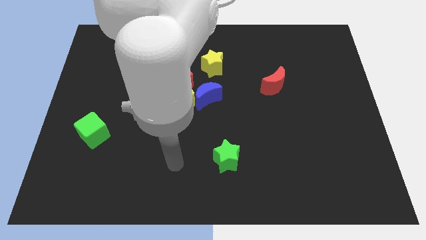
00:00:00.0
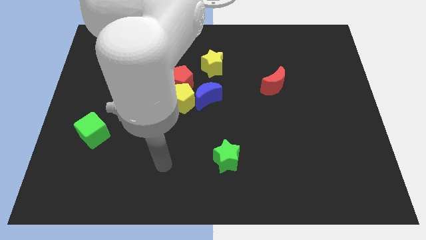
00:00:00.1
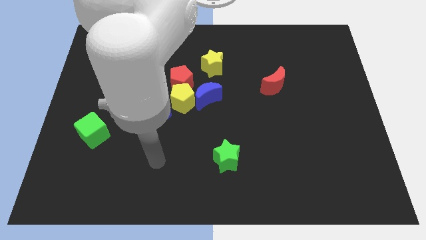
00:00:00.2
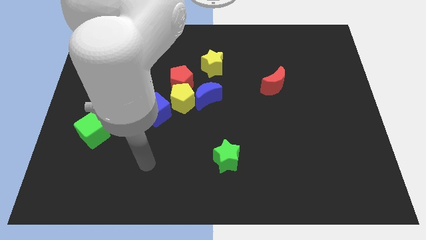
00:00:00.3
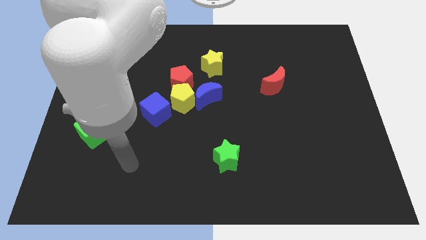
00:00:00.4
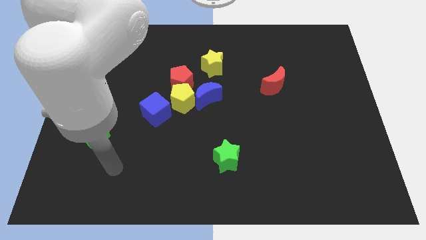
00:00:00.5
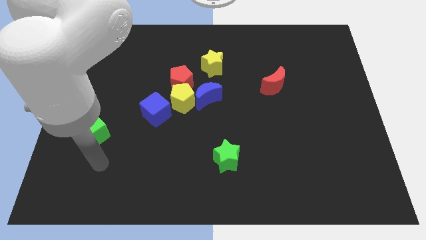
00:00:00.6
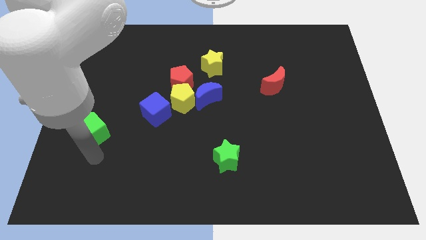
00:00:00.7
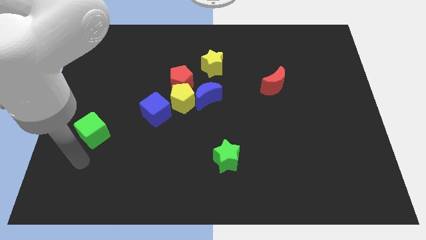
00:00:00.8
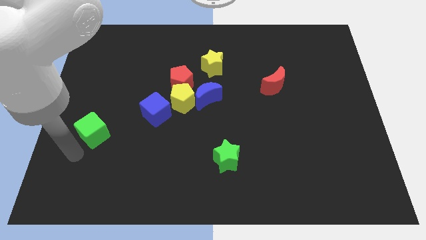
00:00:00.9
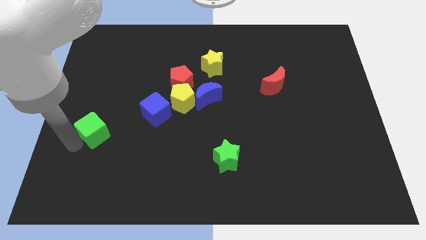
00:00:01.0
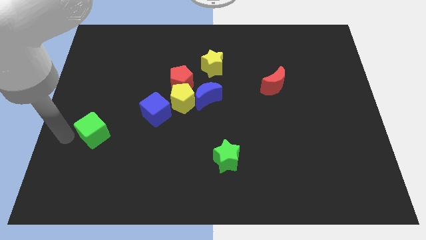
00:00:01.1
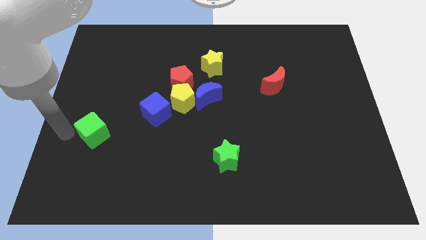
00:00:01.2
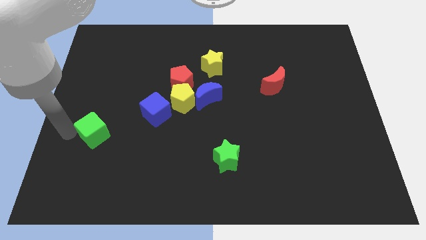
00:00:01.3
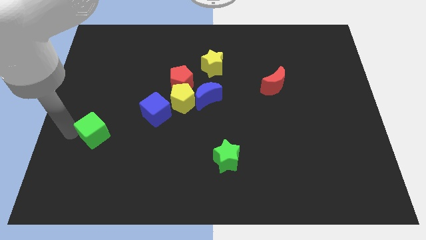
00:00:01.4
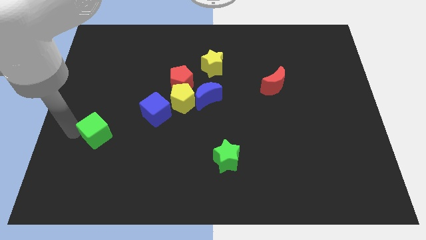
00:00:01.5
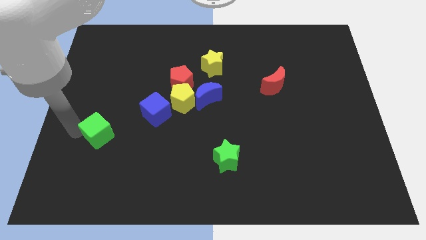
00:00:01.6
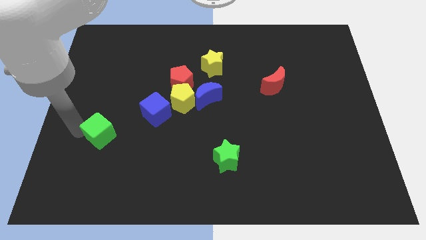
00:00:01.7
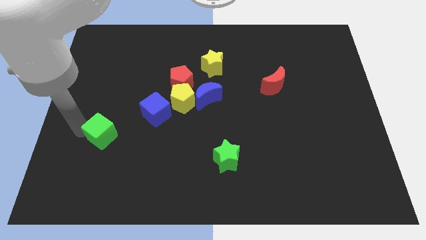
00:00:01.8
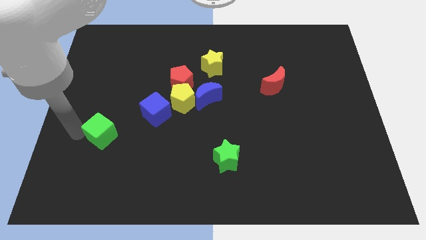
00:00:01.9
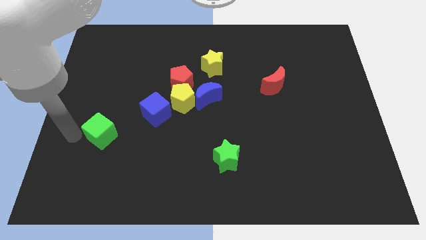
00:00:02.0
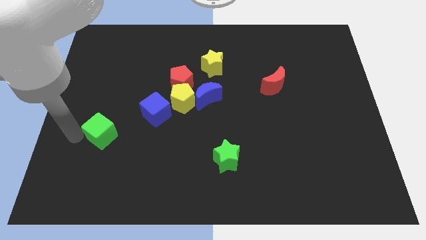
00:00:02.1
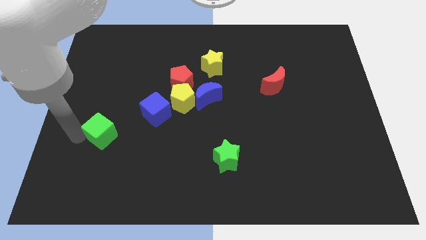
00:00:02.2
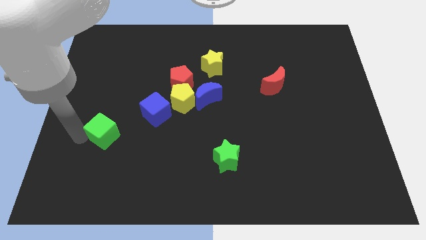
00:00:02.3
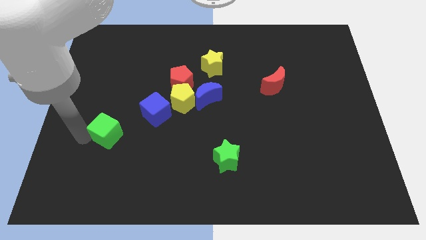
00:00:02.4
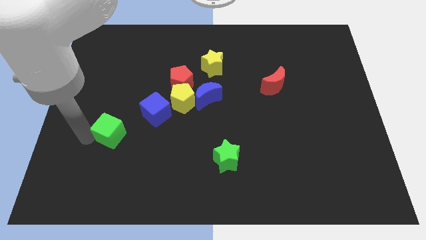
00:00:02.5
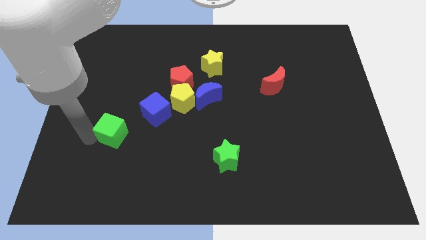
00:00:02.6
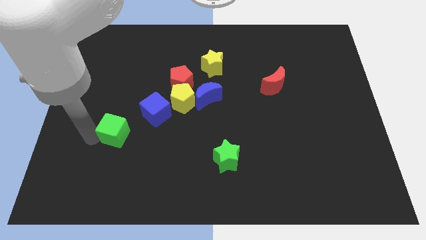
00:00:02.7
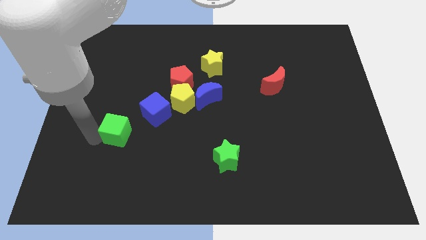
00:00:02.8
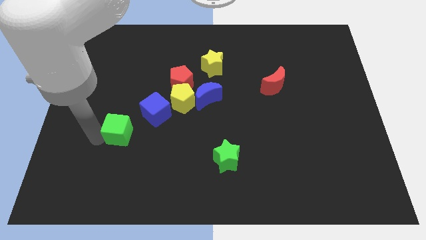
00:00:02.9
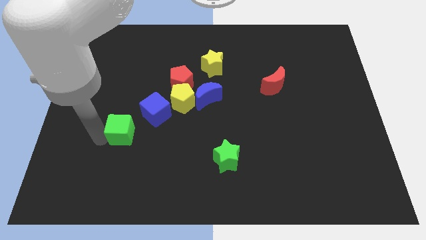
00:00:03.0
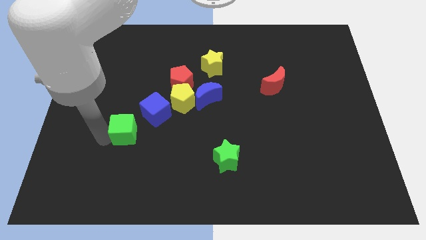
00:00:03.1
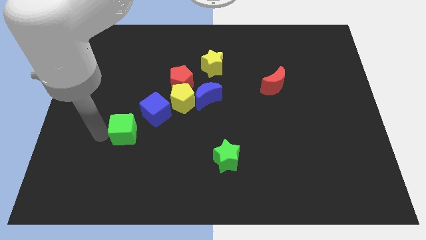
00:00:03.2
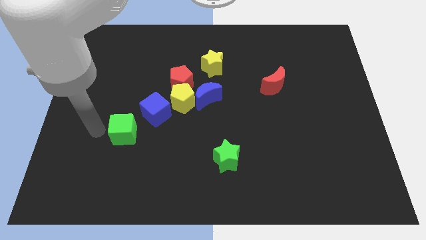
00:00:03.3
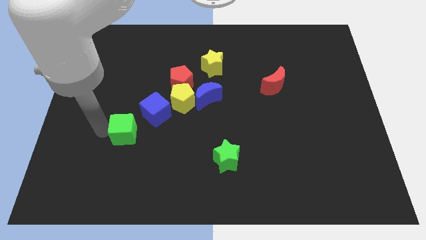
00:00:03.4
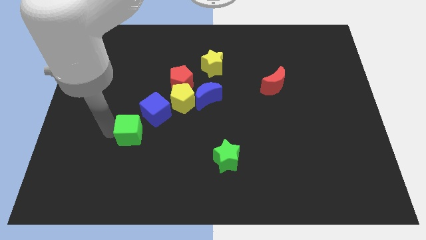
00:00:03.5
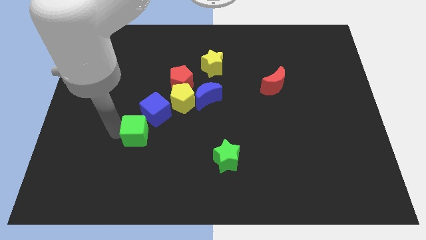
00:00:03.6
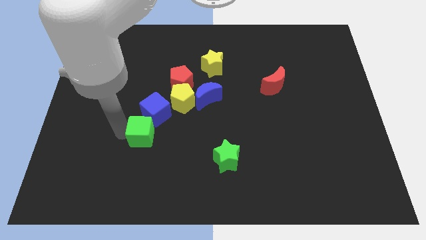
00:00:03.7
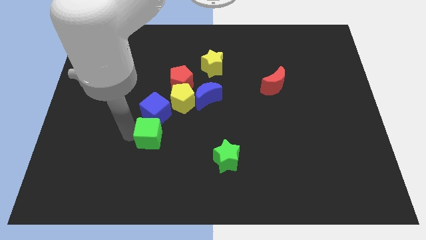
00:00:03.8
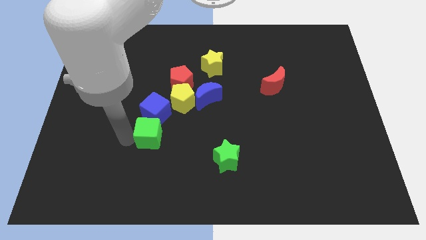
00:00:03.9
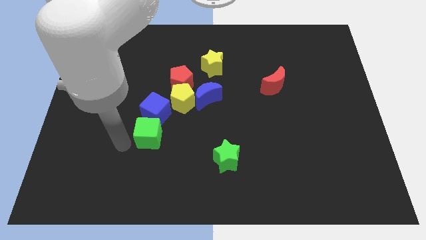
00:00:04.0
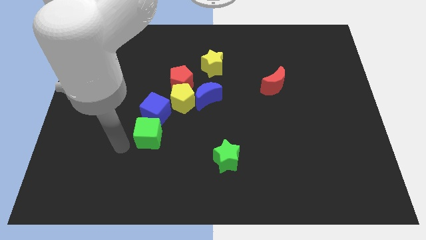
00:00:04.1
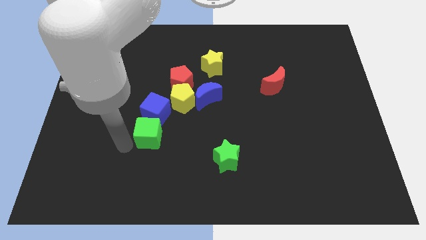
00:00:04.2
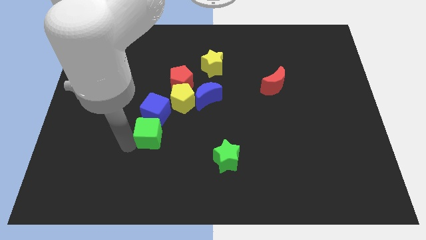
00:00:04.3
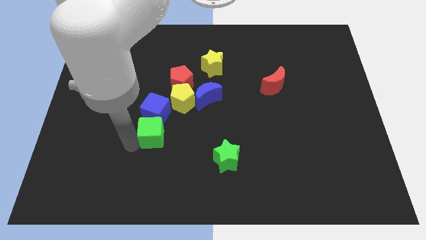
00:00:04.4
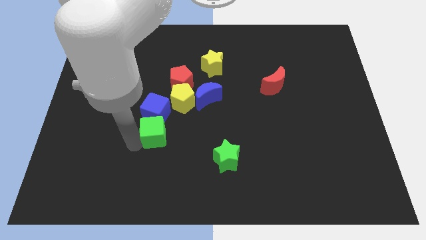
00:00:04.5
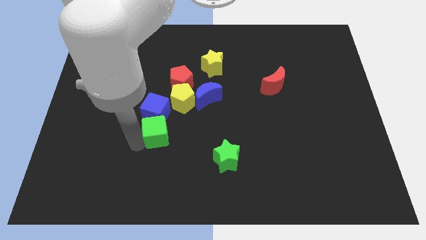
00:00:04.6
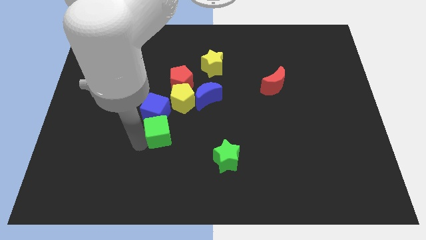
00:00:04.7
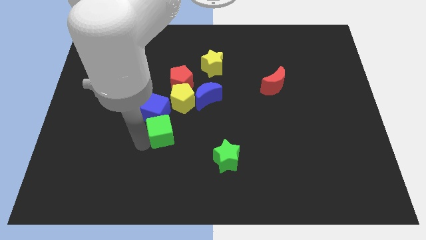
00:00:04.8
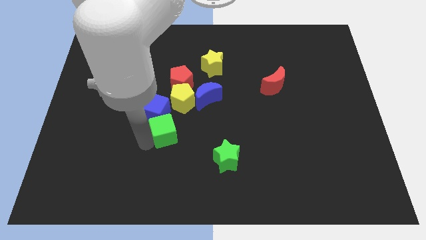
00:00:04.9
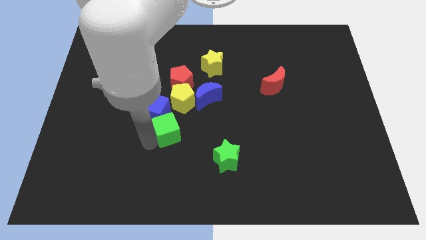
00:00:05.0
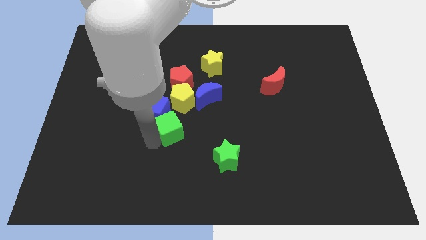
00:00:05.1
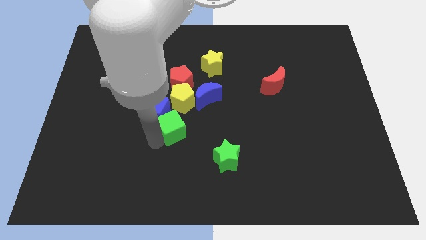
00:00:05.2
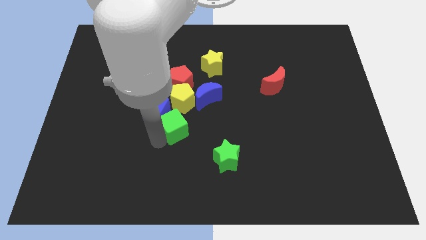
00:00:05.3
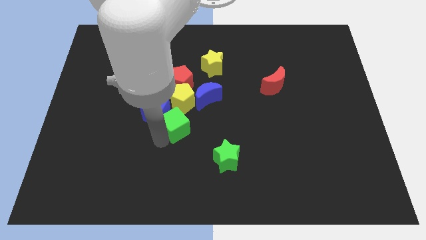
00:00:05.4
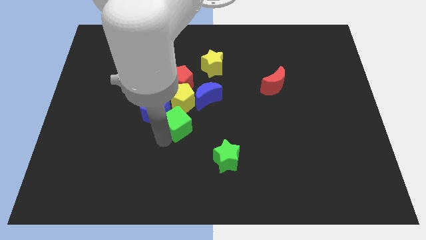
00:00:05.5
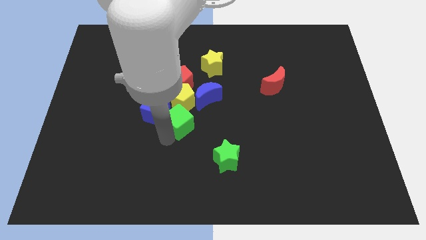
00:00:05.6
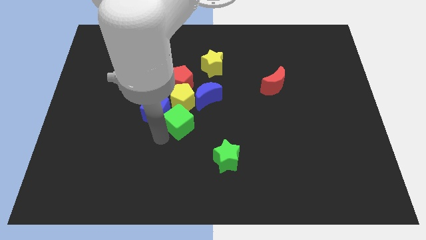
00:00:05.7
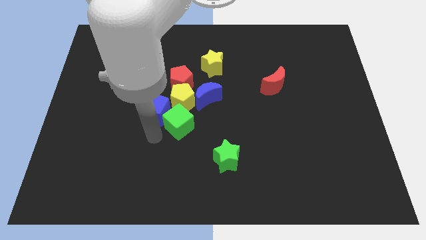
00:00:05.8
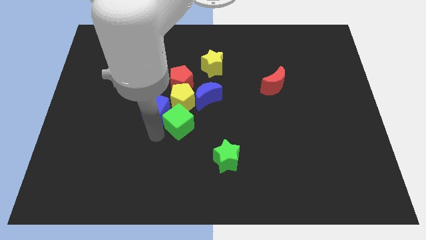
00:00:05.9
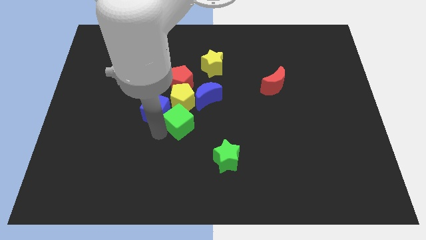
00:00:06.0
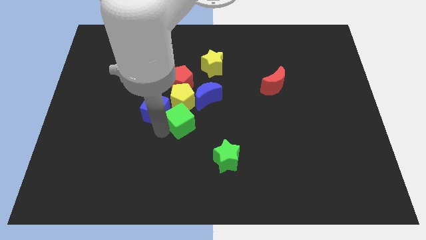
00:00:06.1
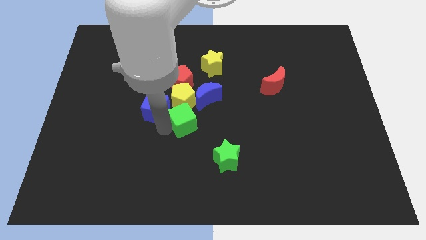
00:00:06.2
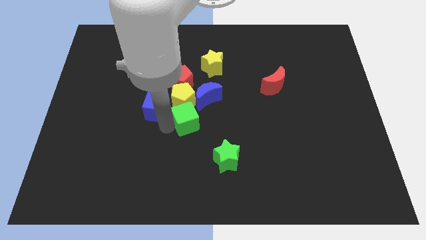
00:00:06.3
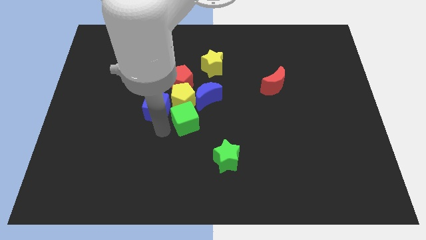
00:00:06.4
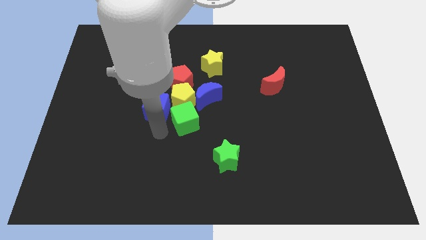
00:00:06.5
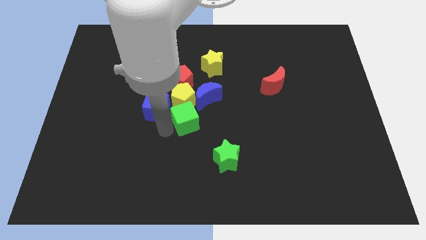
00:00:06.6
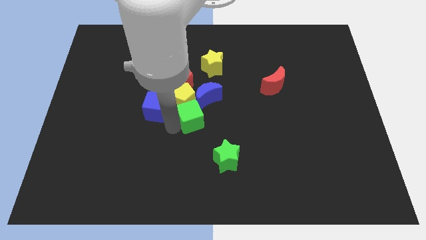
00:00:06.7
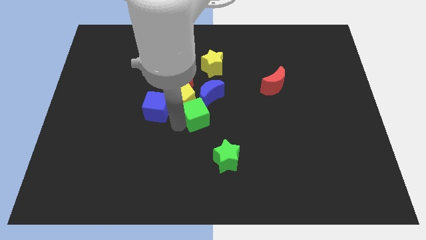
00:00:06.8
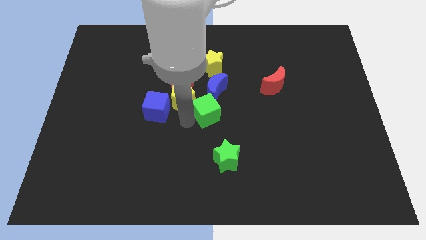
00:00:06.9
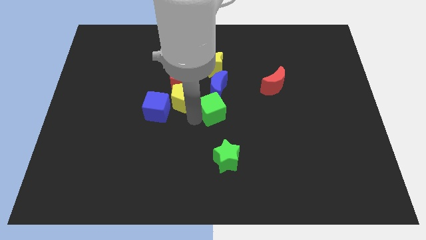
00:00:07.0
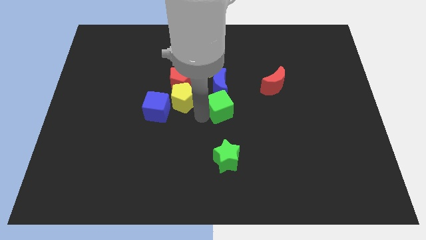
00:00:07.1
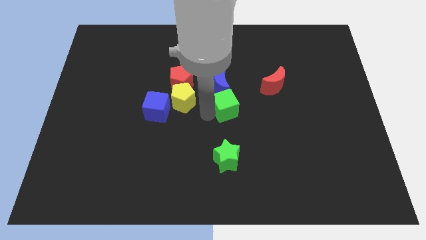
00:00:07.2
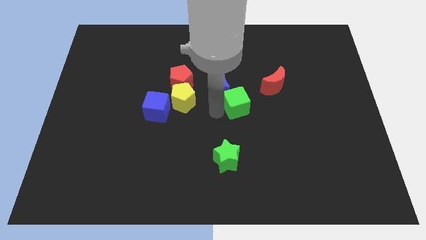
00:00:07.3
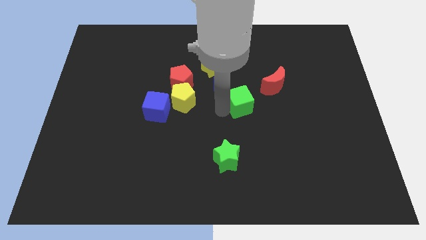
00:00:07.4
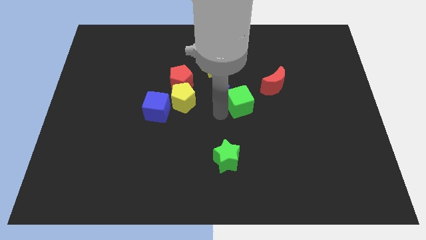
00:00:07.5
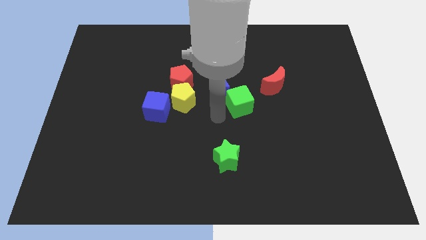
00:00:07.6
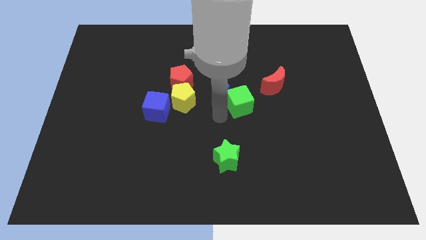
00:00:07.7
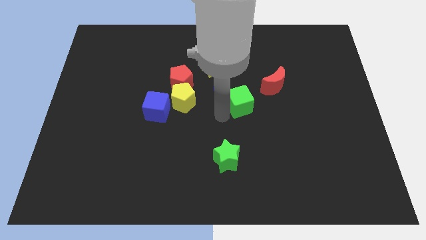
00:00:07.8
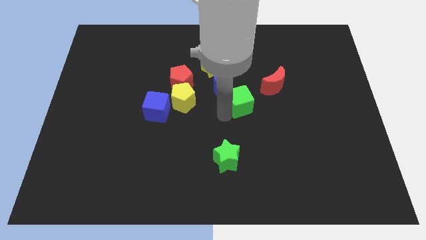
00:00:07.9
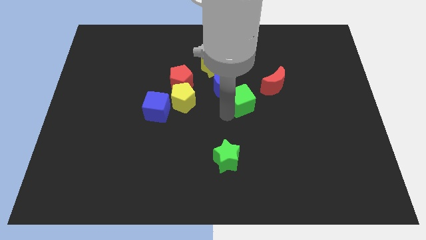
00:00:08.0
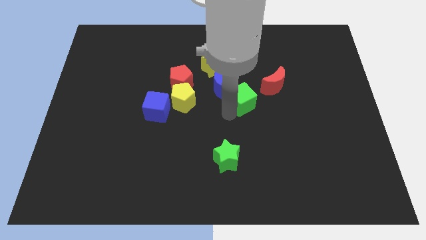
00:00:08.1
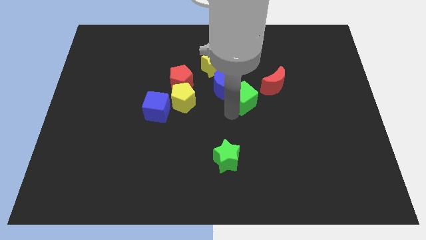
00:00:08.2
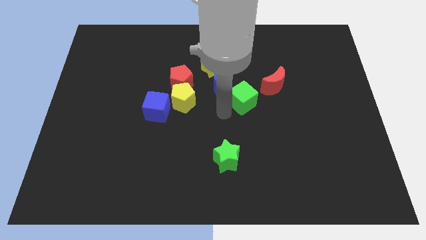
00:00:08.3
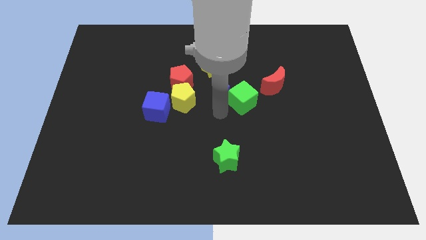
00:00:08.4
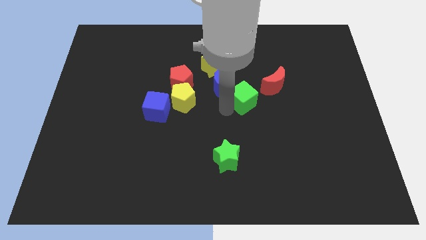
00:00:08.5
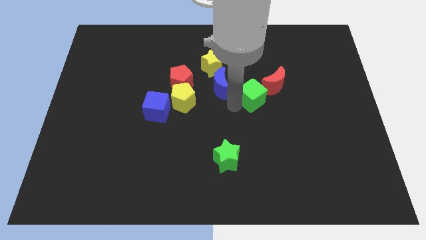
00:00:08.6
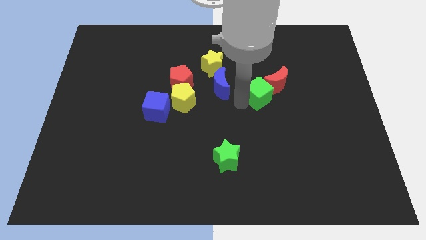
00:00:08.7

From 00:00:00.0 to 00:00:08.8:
slide the green cube towards the red moon
